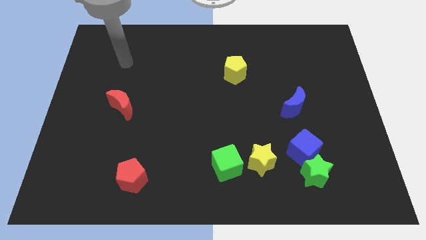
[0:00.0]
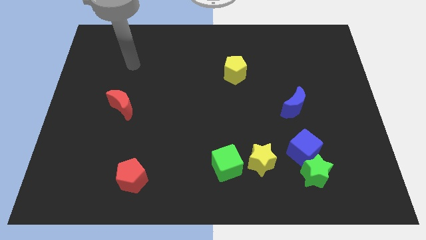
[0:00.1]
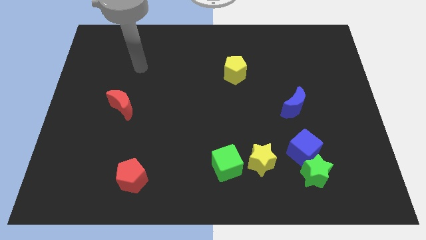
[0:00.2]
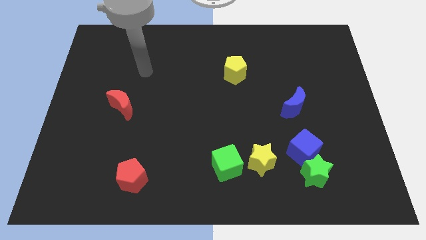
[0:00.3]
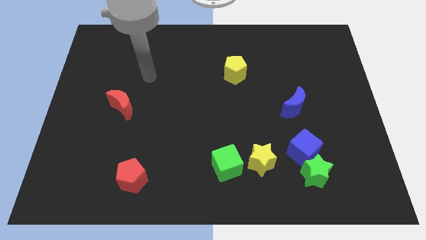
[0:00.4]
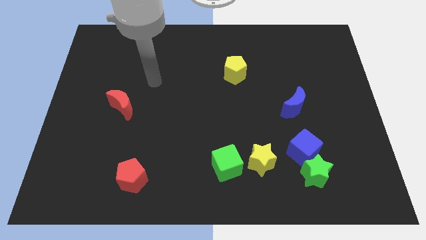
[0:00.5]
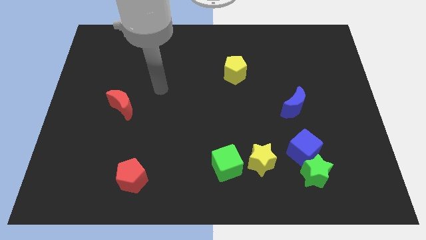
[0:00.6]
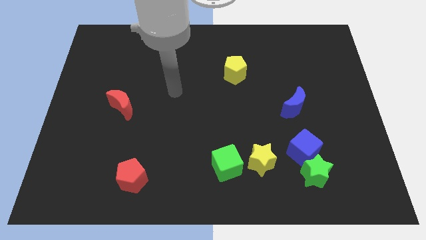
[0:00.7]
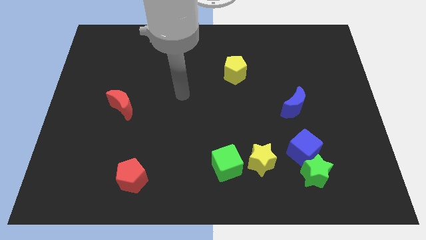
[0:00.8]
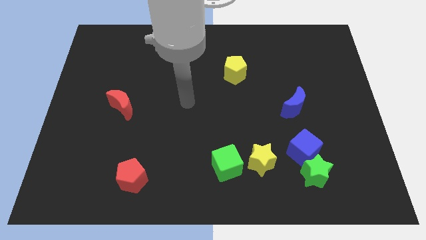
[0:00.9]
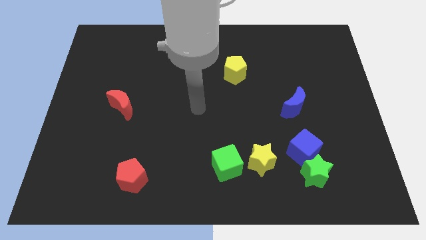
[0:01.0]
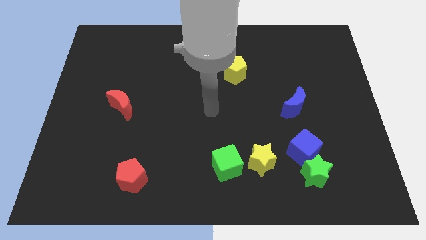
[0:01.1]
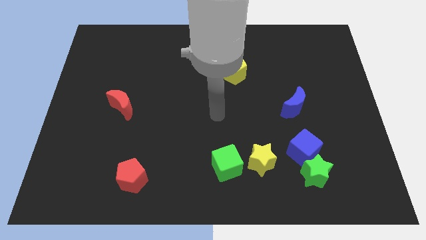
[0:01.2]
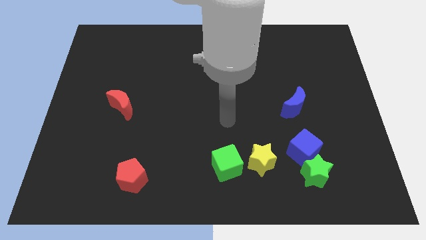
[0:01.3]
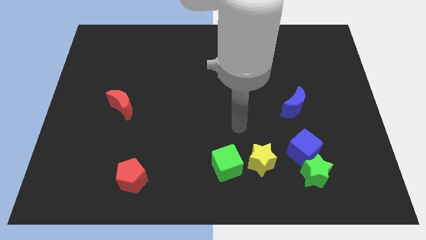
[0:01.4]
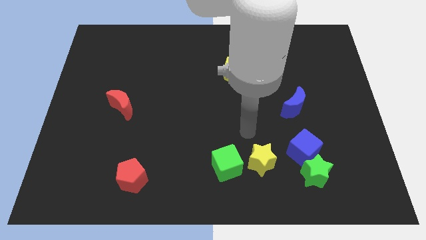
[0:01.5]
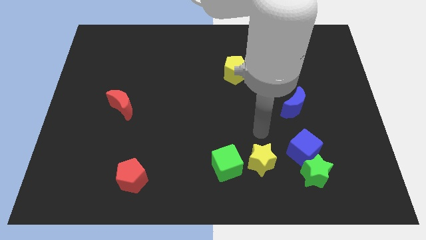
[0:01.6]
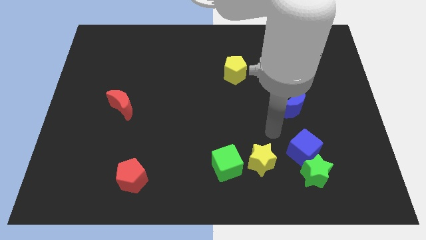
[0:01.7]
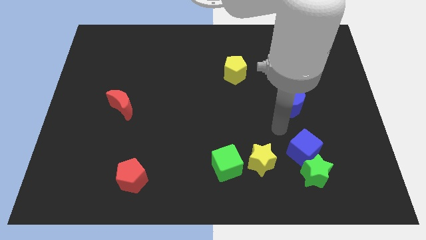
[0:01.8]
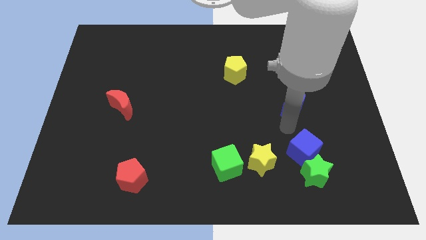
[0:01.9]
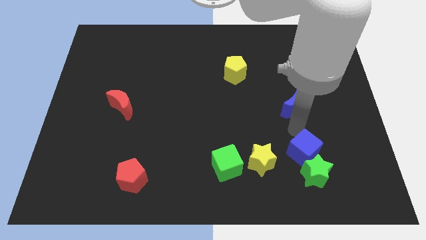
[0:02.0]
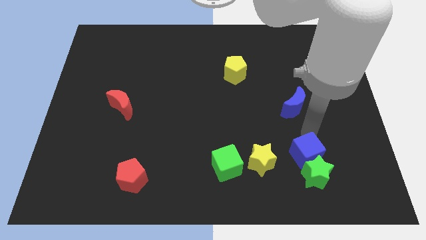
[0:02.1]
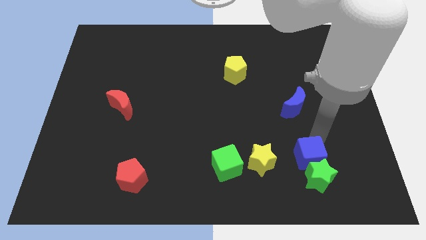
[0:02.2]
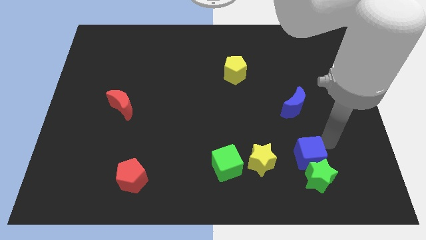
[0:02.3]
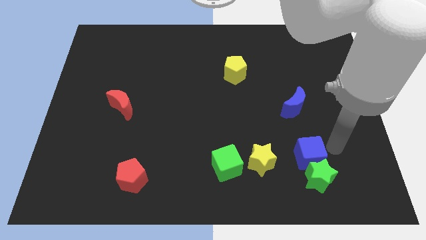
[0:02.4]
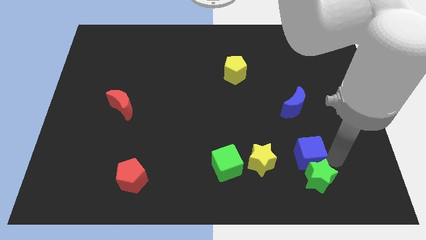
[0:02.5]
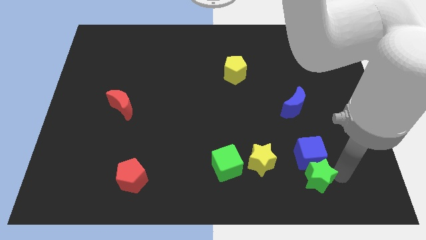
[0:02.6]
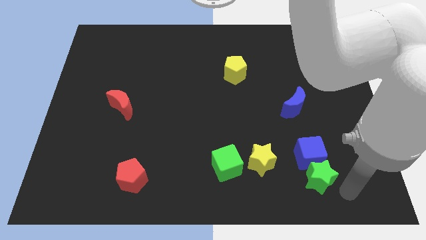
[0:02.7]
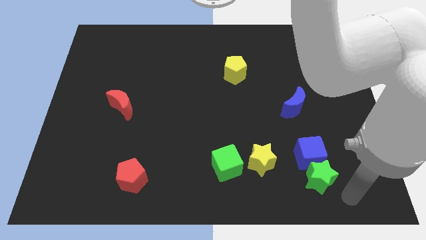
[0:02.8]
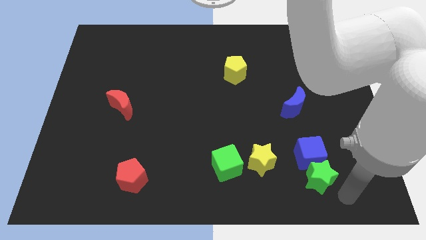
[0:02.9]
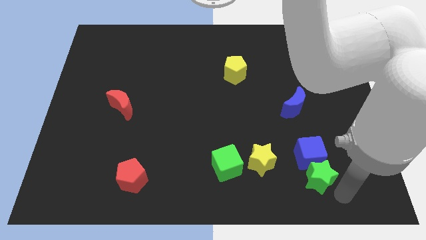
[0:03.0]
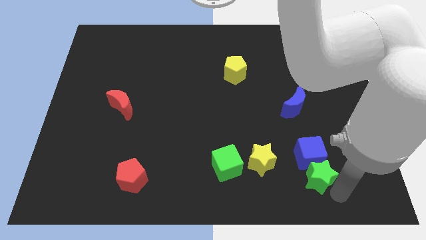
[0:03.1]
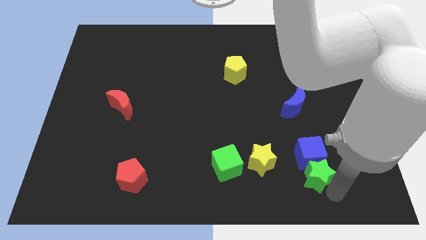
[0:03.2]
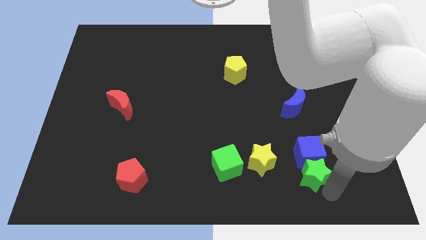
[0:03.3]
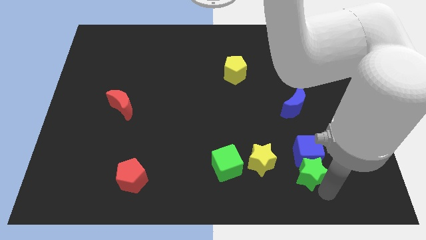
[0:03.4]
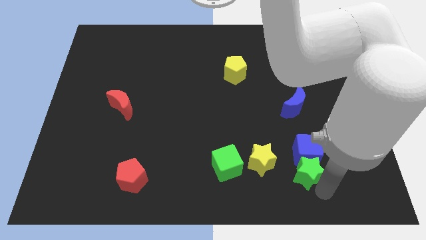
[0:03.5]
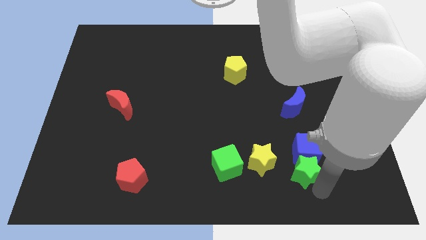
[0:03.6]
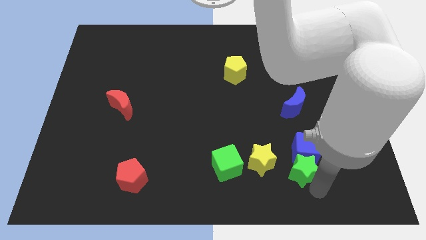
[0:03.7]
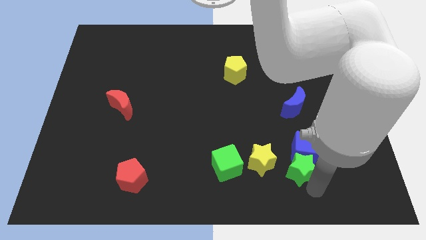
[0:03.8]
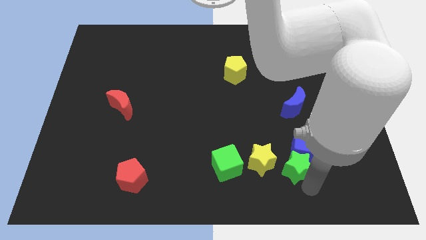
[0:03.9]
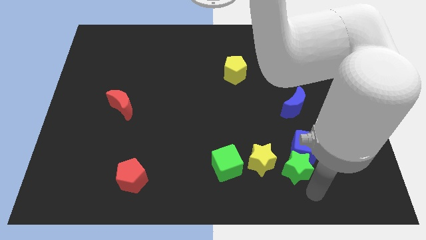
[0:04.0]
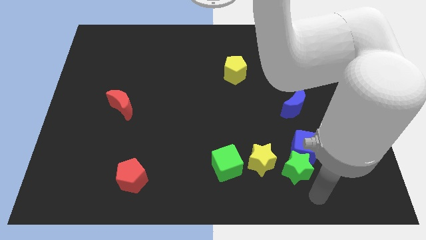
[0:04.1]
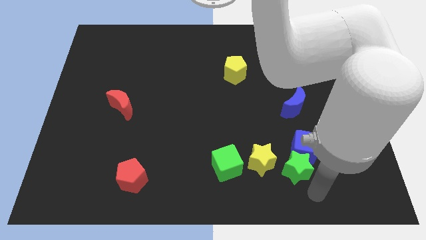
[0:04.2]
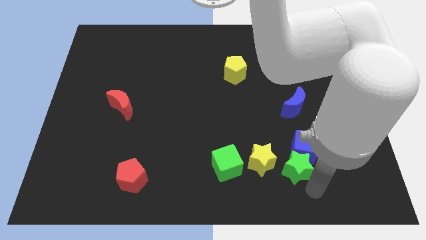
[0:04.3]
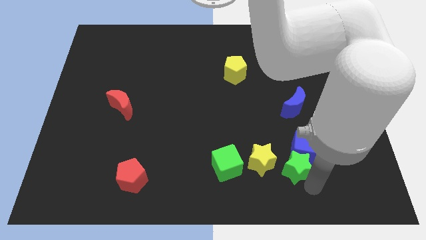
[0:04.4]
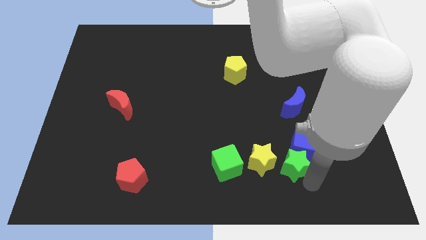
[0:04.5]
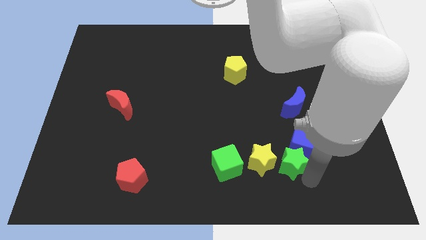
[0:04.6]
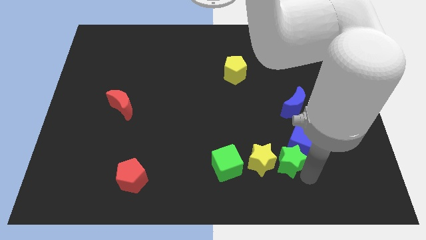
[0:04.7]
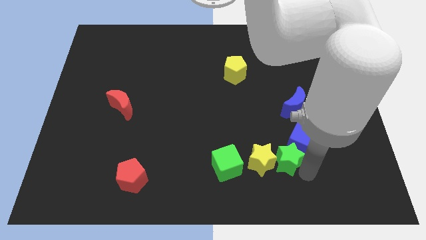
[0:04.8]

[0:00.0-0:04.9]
move the green star to the left of the blue cube

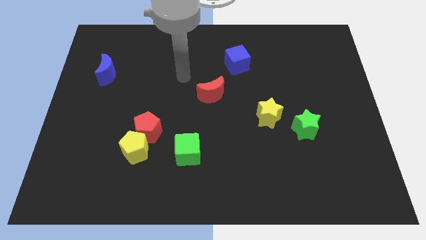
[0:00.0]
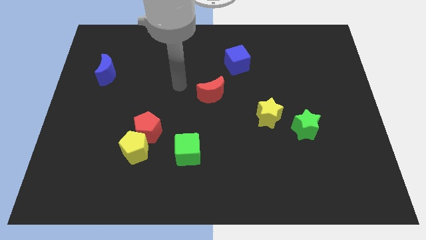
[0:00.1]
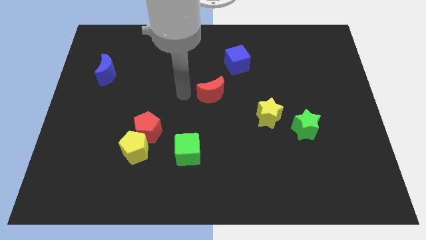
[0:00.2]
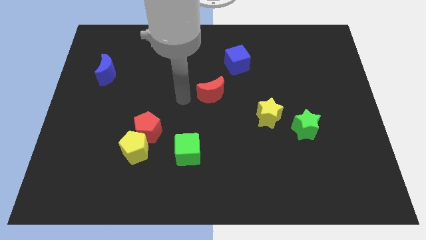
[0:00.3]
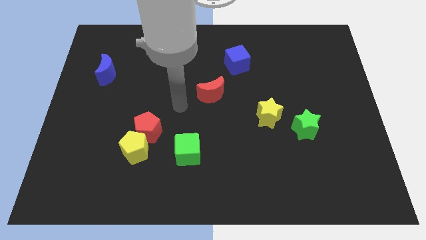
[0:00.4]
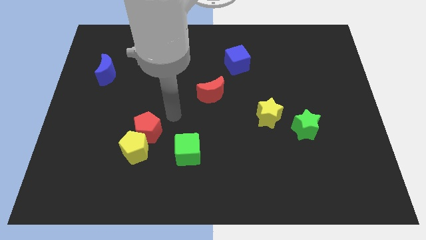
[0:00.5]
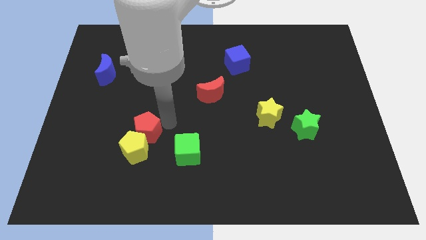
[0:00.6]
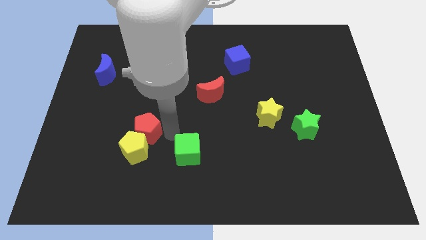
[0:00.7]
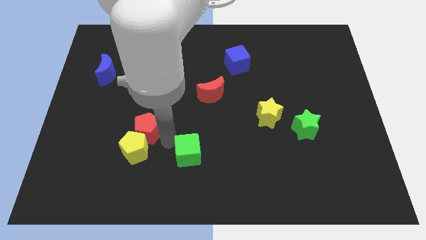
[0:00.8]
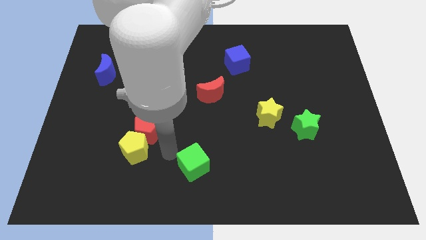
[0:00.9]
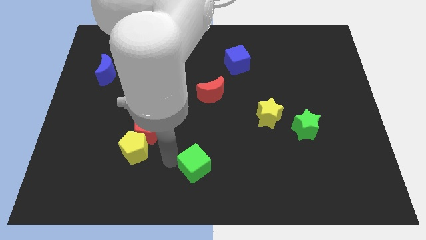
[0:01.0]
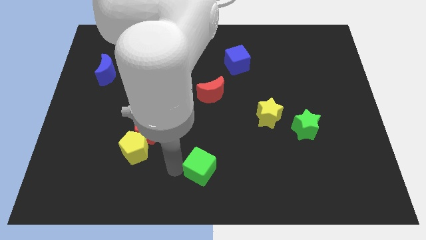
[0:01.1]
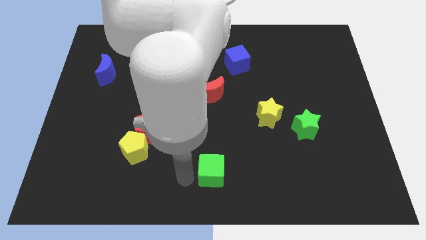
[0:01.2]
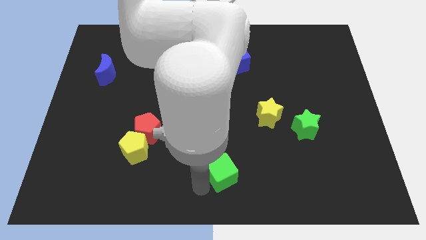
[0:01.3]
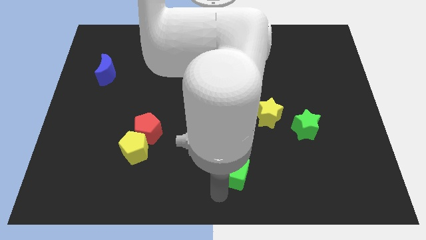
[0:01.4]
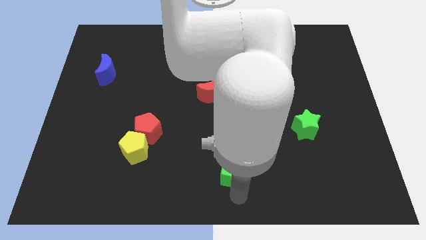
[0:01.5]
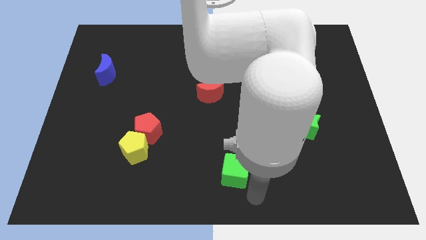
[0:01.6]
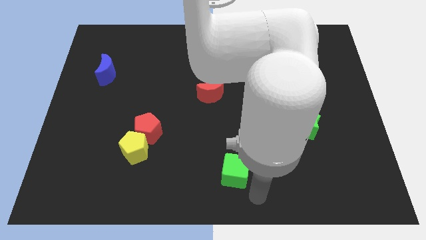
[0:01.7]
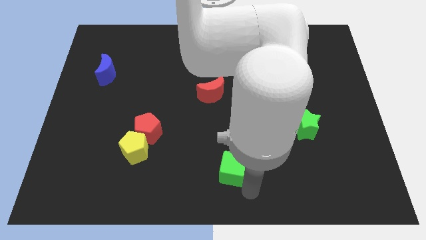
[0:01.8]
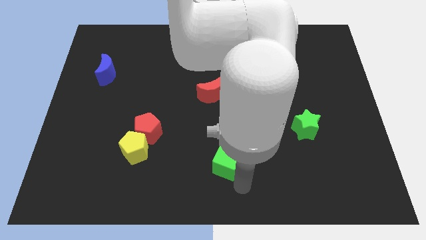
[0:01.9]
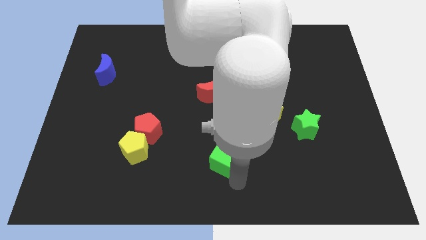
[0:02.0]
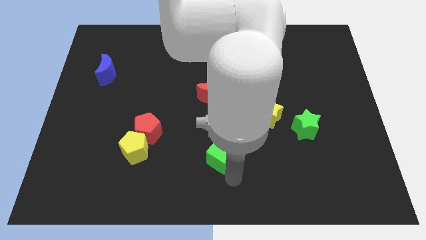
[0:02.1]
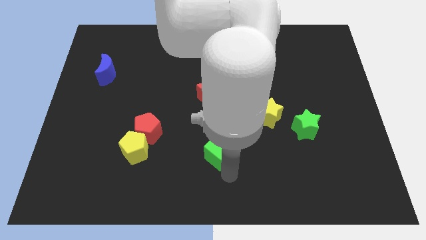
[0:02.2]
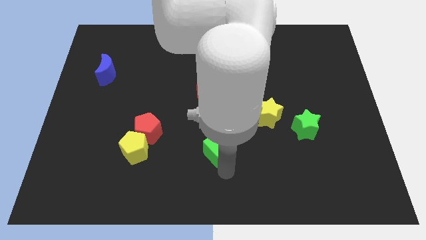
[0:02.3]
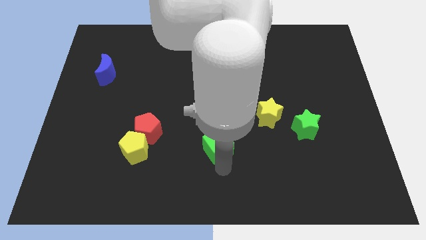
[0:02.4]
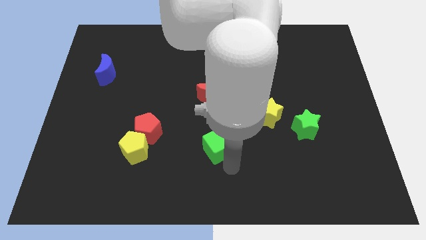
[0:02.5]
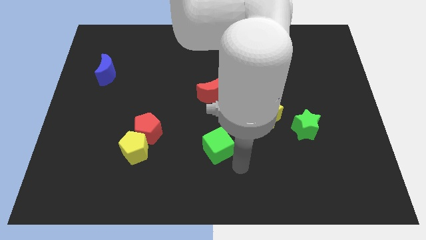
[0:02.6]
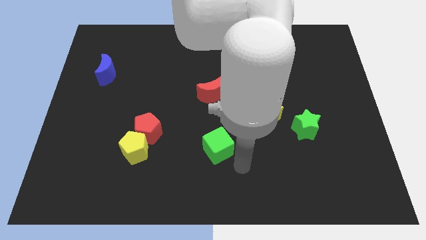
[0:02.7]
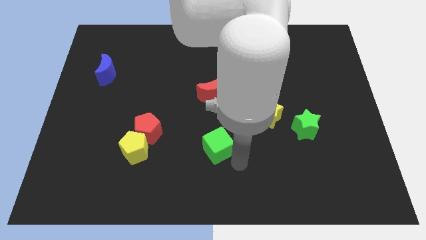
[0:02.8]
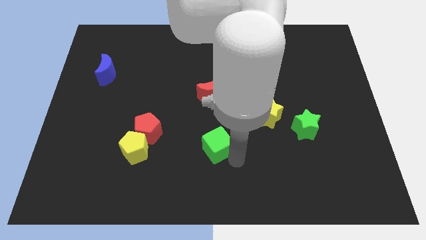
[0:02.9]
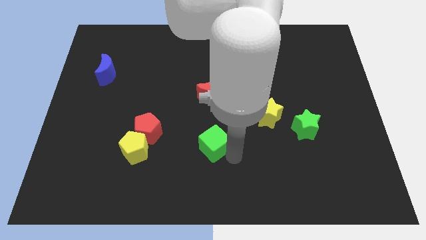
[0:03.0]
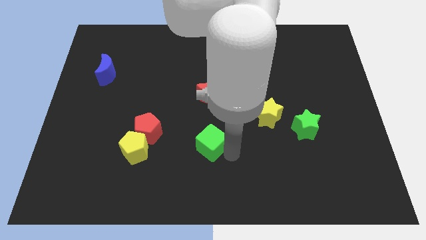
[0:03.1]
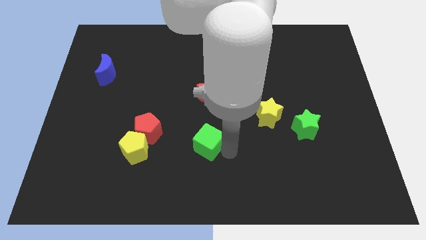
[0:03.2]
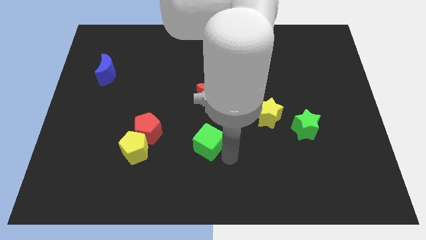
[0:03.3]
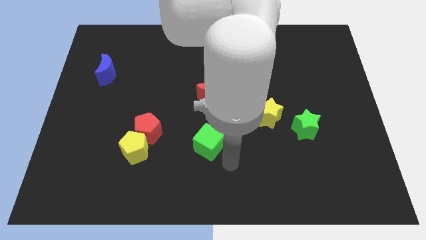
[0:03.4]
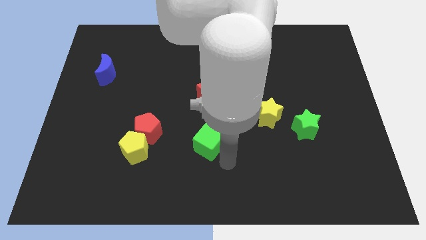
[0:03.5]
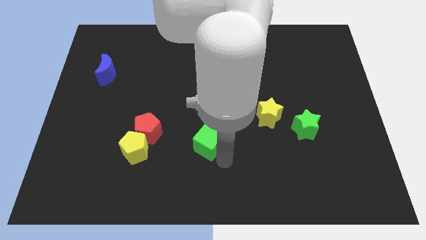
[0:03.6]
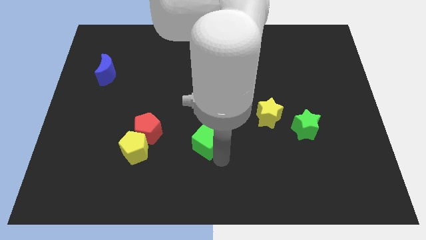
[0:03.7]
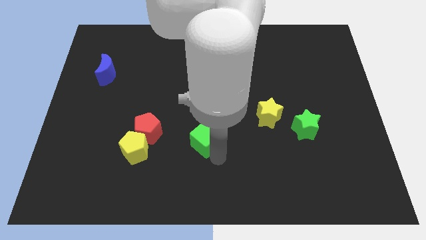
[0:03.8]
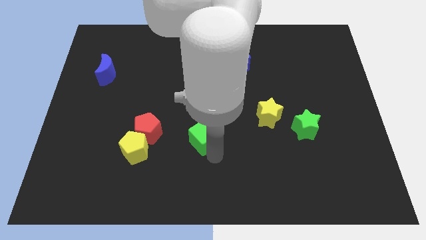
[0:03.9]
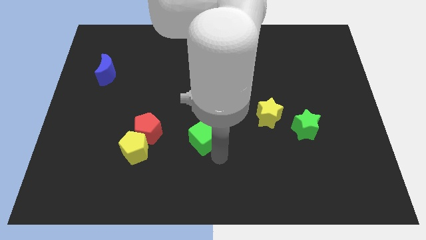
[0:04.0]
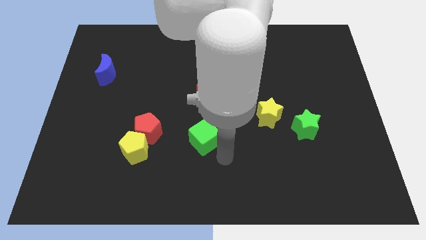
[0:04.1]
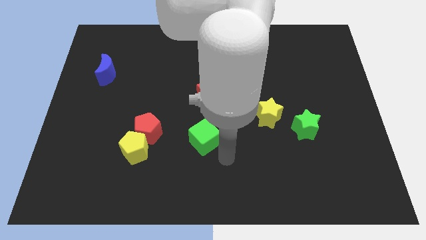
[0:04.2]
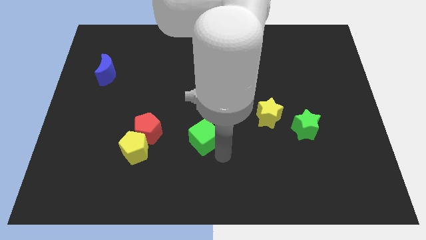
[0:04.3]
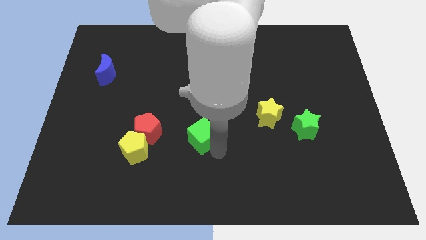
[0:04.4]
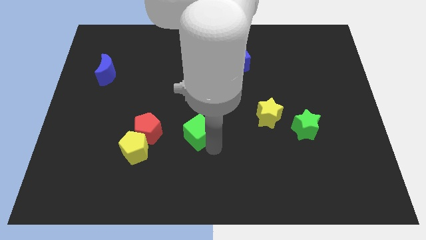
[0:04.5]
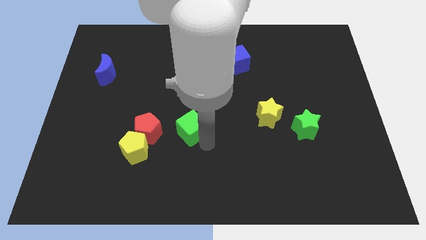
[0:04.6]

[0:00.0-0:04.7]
put the green cube to the bottom left side of the red moon
